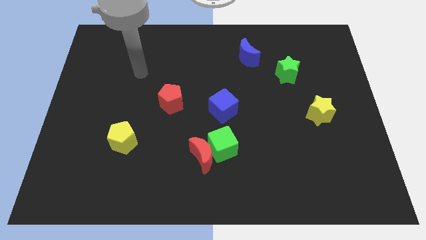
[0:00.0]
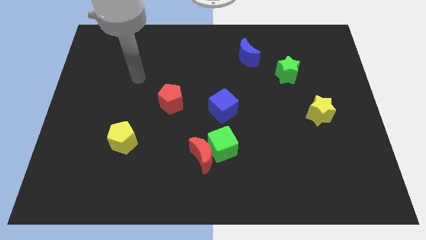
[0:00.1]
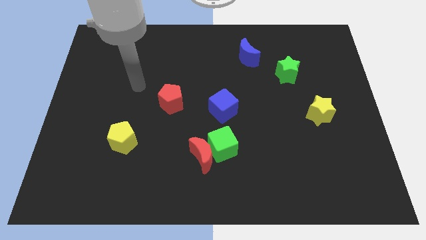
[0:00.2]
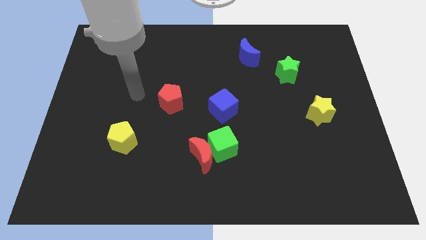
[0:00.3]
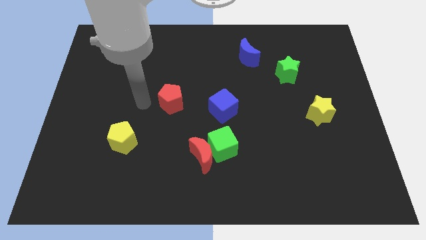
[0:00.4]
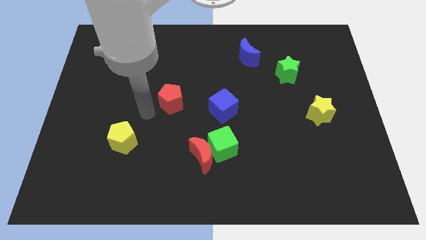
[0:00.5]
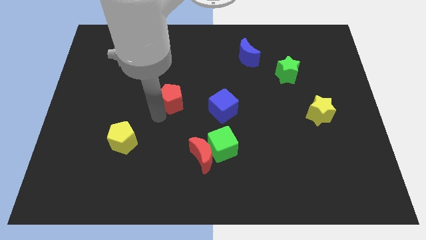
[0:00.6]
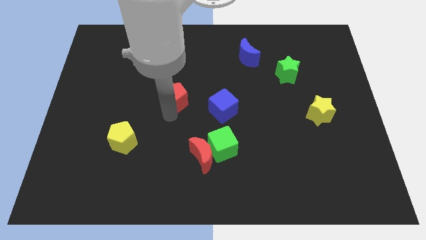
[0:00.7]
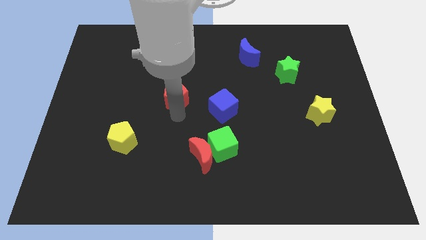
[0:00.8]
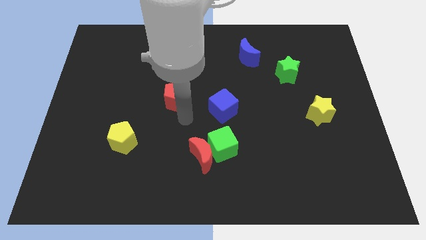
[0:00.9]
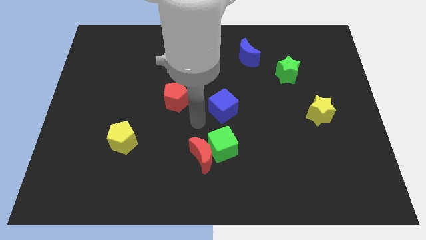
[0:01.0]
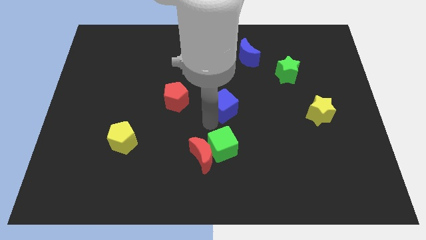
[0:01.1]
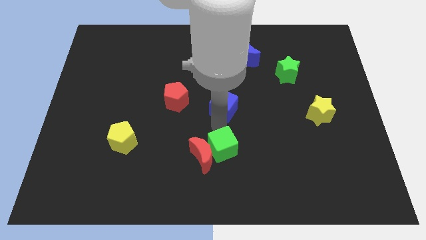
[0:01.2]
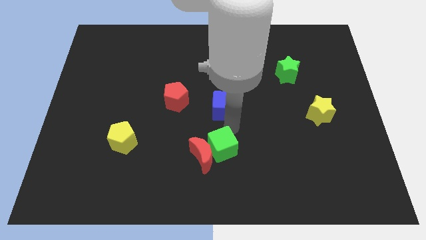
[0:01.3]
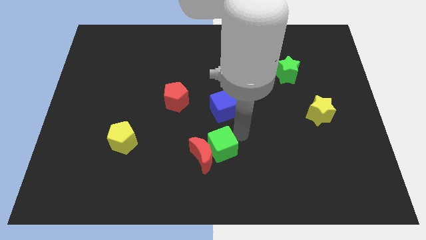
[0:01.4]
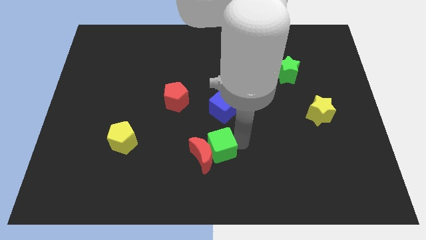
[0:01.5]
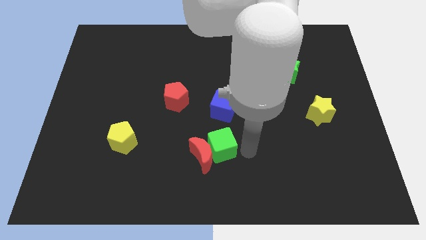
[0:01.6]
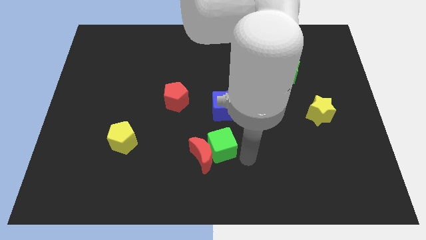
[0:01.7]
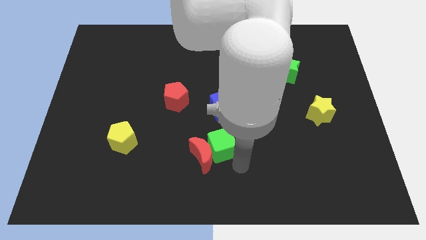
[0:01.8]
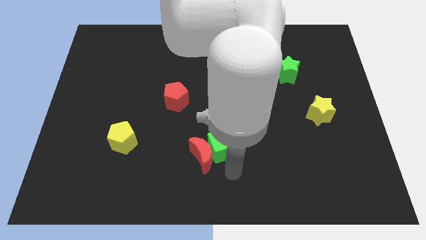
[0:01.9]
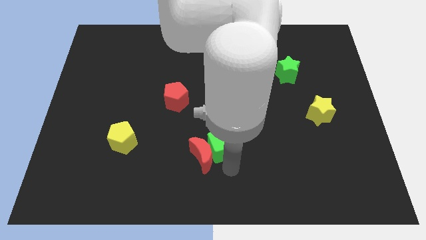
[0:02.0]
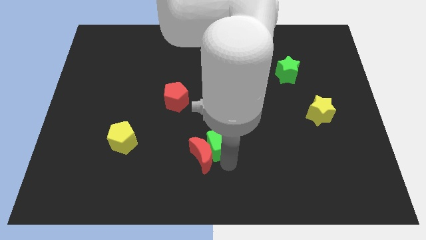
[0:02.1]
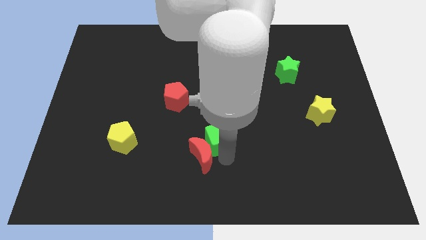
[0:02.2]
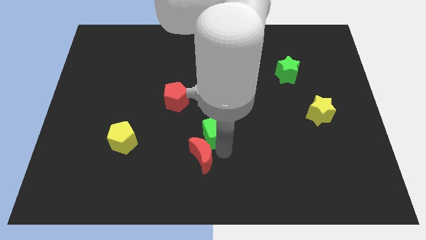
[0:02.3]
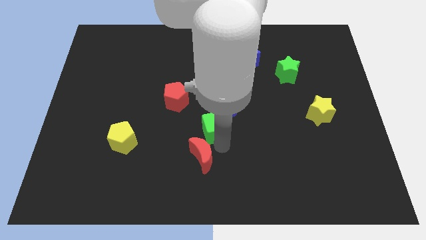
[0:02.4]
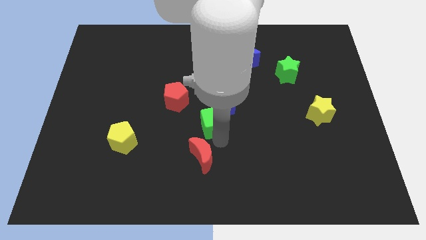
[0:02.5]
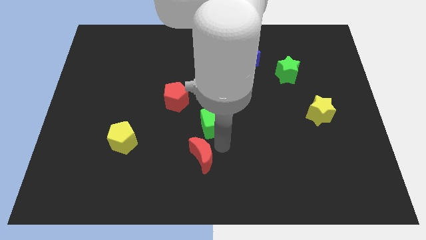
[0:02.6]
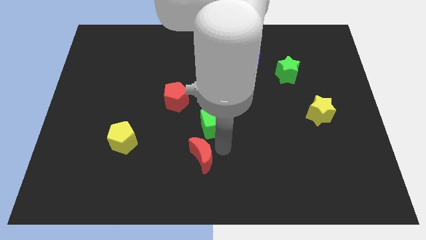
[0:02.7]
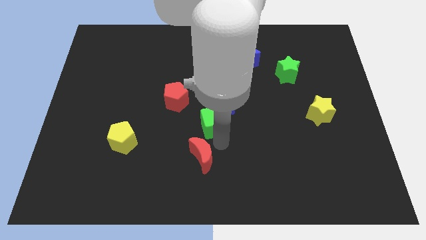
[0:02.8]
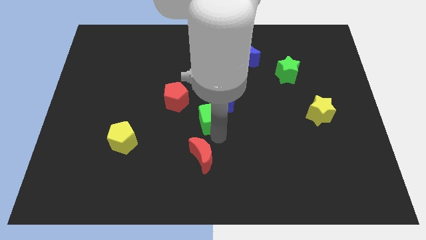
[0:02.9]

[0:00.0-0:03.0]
slightly push the green cube up

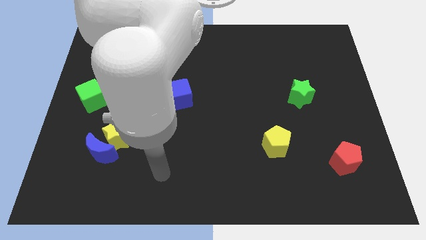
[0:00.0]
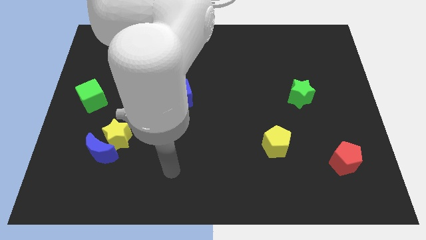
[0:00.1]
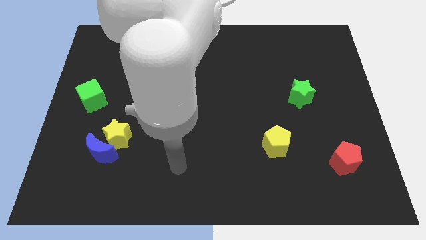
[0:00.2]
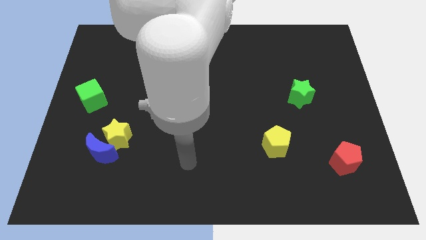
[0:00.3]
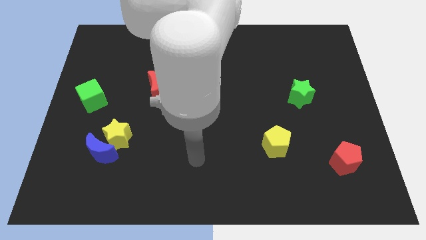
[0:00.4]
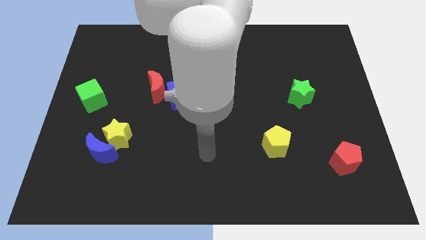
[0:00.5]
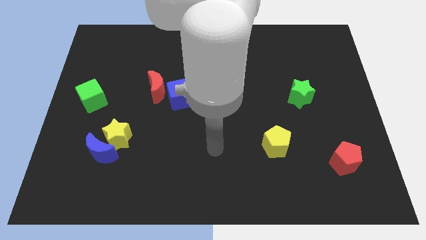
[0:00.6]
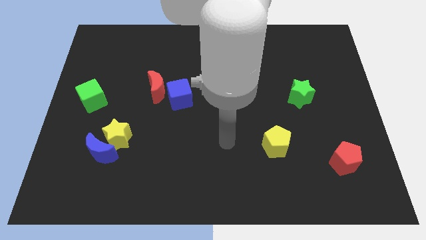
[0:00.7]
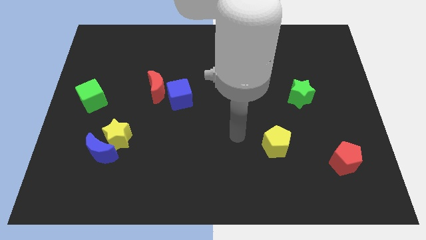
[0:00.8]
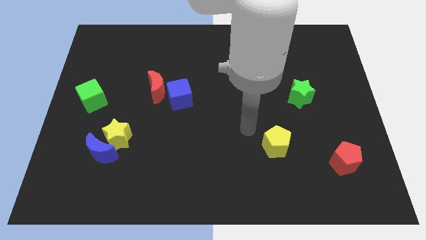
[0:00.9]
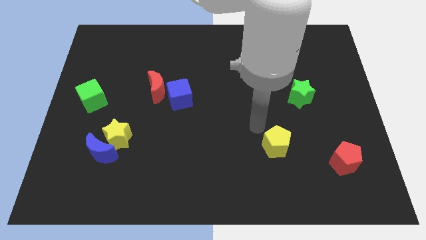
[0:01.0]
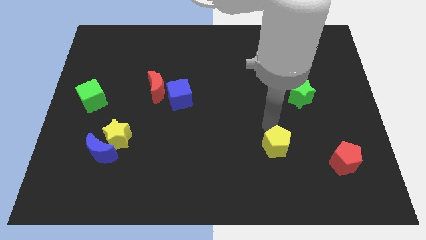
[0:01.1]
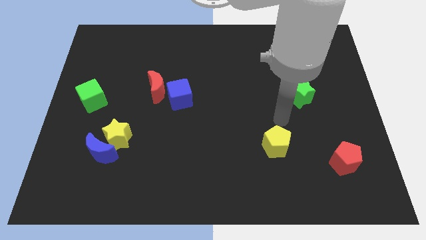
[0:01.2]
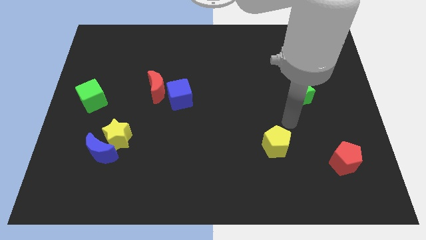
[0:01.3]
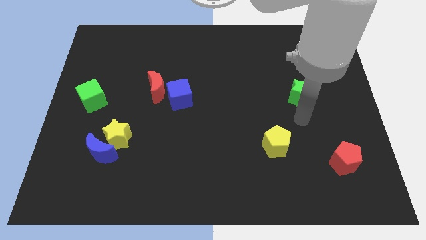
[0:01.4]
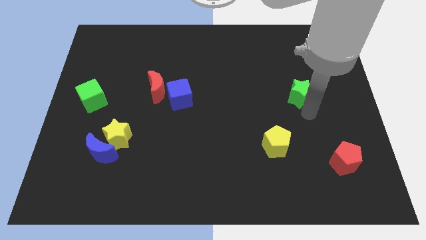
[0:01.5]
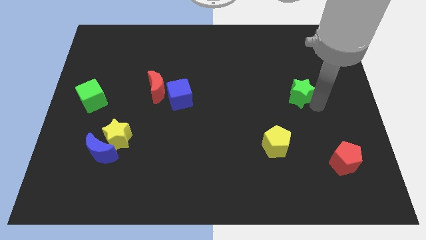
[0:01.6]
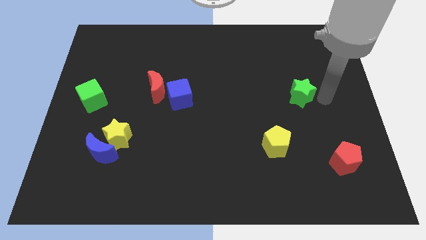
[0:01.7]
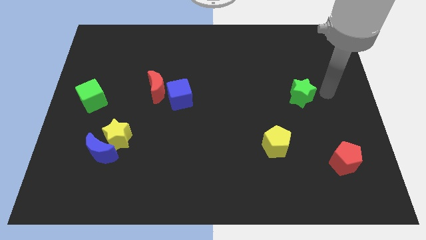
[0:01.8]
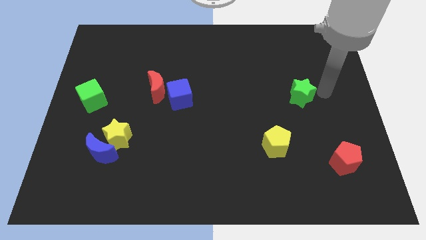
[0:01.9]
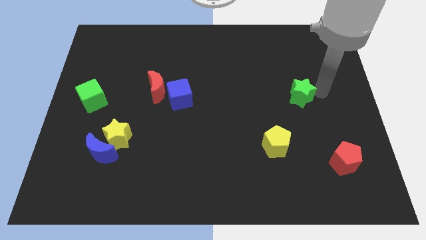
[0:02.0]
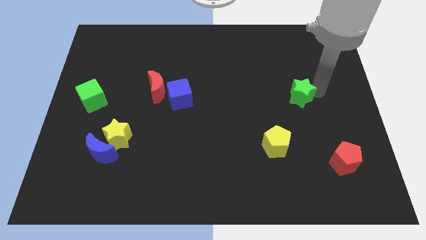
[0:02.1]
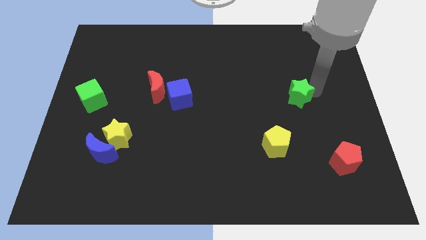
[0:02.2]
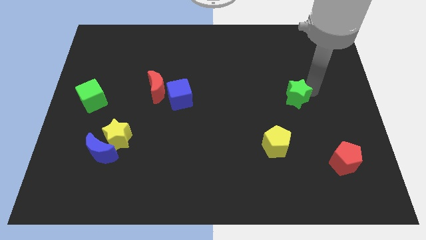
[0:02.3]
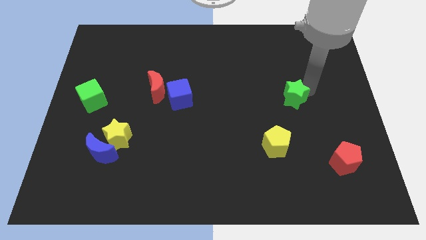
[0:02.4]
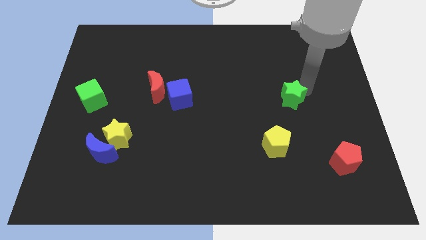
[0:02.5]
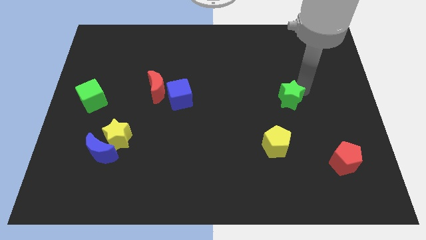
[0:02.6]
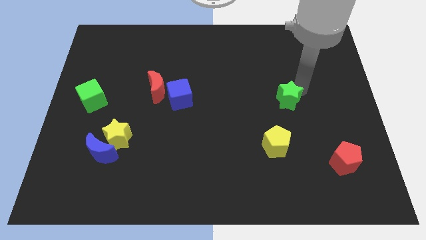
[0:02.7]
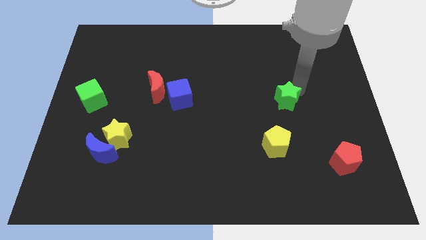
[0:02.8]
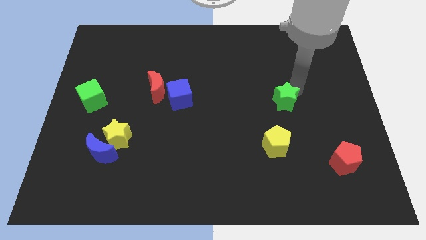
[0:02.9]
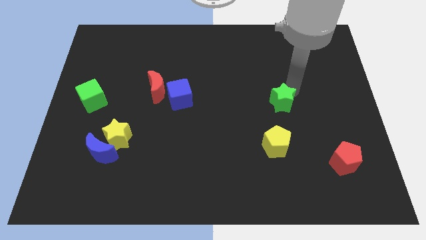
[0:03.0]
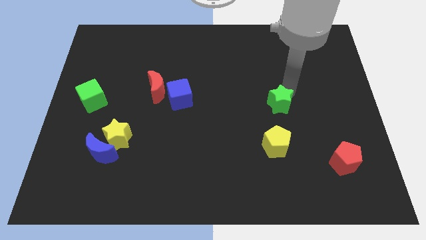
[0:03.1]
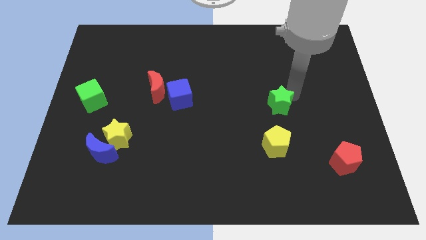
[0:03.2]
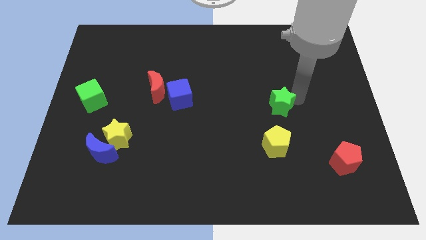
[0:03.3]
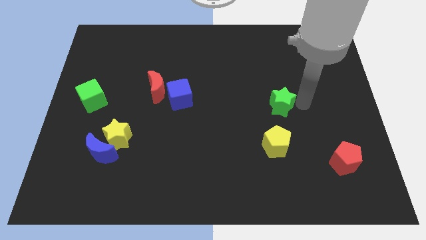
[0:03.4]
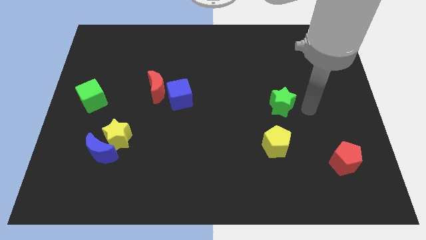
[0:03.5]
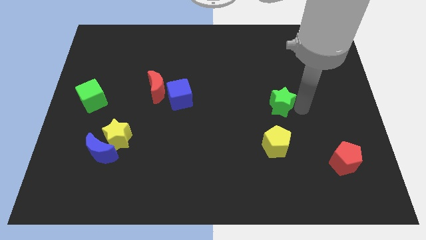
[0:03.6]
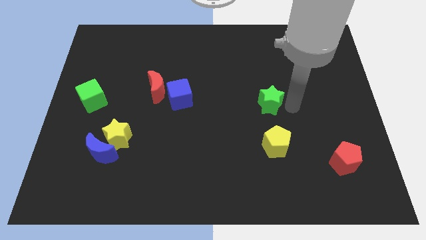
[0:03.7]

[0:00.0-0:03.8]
move the green star to the left a little bit

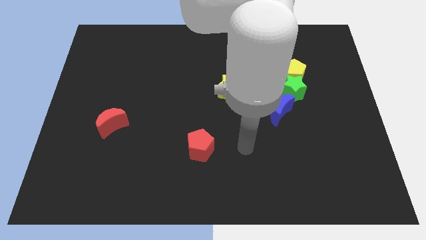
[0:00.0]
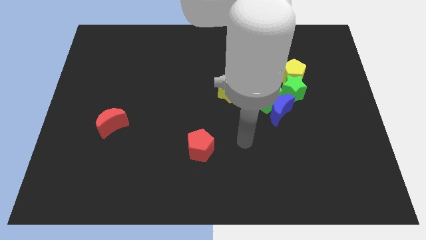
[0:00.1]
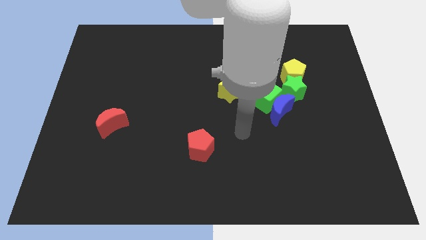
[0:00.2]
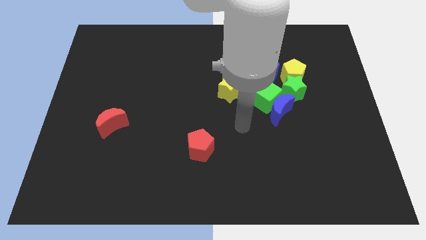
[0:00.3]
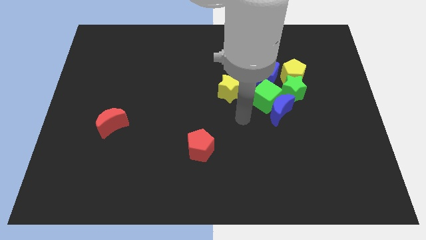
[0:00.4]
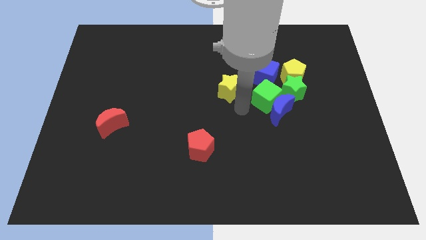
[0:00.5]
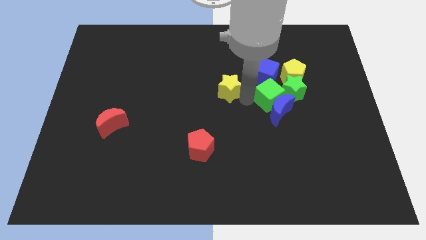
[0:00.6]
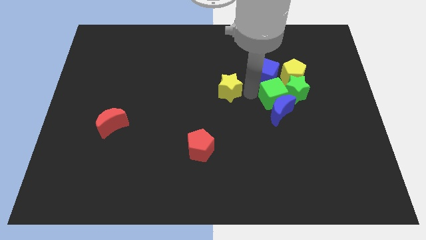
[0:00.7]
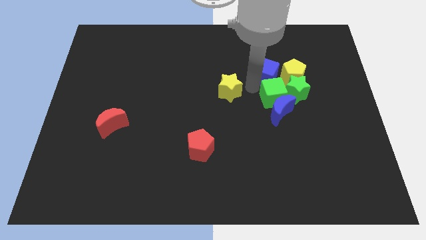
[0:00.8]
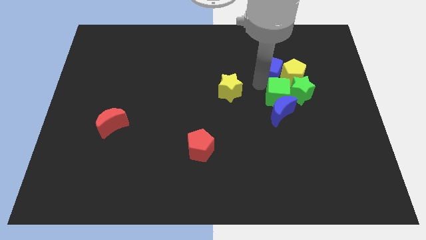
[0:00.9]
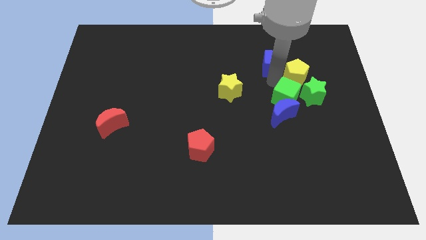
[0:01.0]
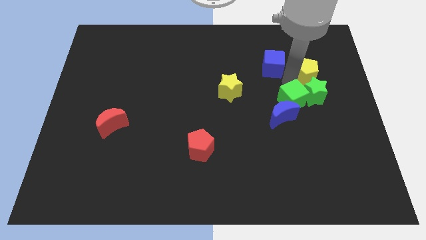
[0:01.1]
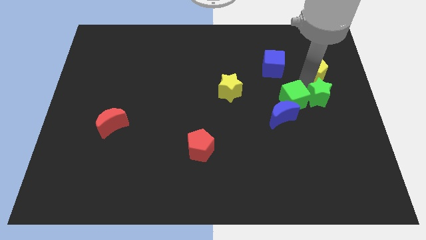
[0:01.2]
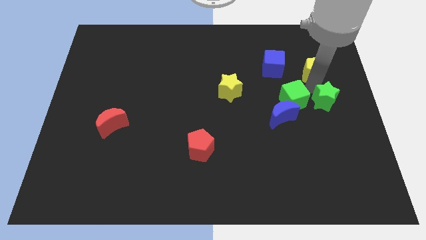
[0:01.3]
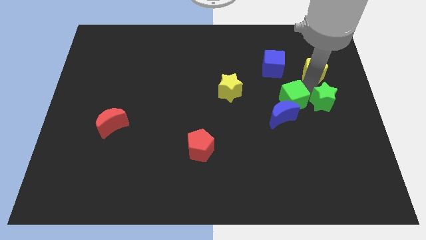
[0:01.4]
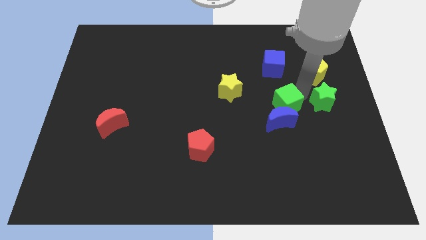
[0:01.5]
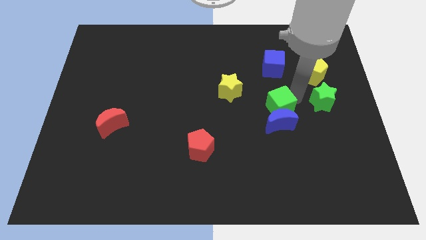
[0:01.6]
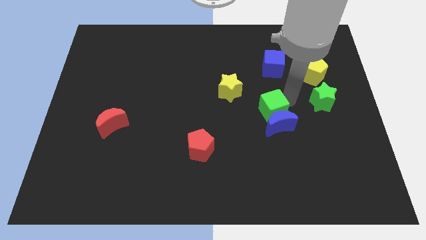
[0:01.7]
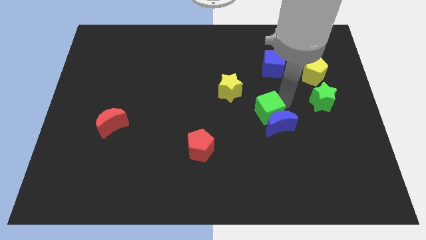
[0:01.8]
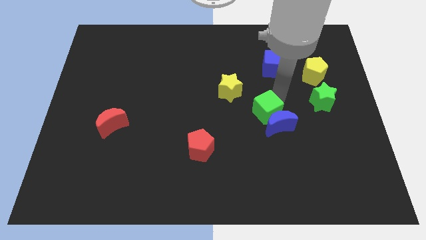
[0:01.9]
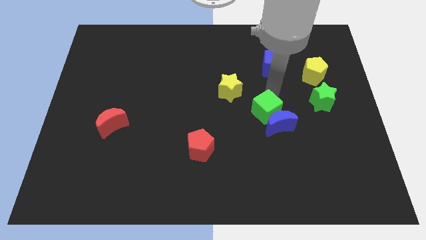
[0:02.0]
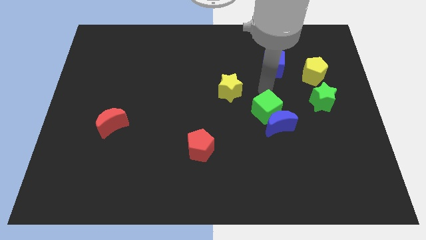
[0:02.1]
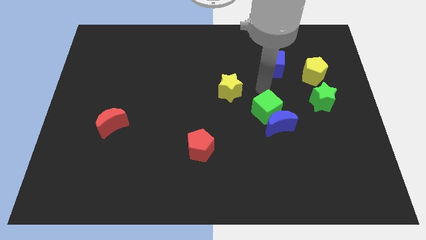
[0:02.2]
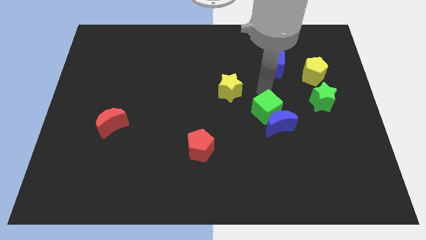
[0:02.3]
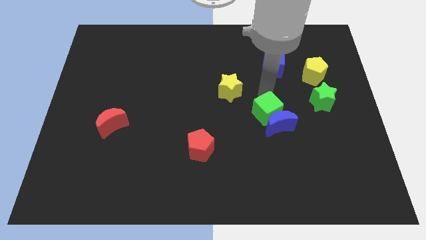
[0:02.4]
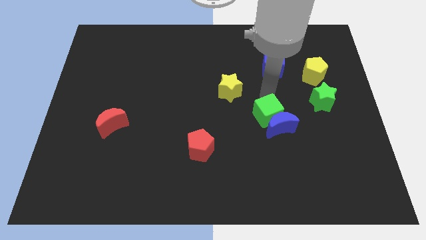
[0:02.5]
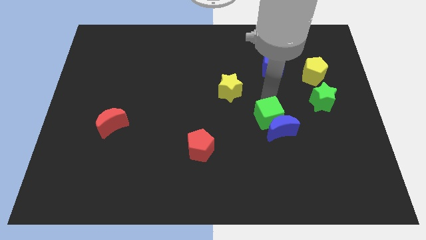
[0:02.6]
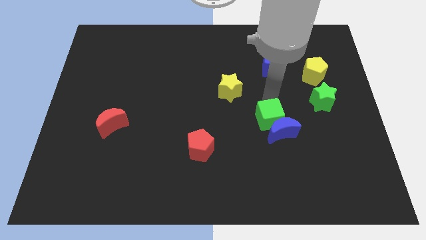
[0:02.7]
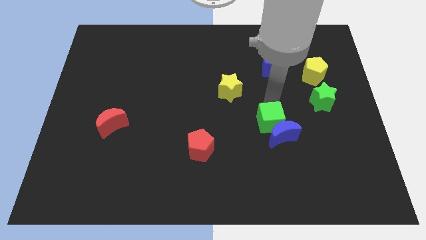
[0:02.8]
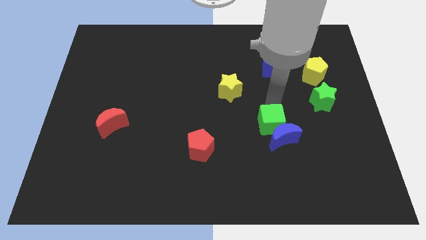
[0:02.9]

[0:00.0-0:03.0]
slightly push the green cube down
